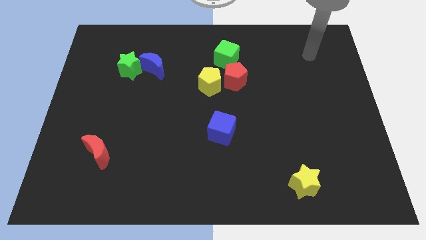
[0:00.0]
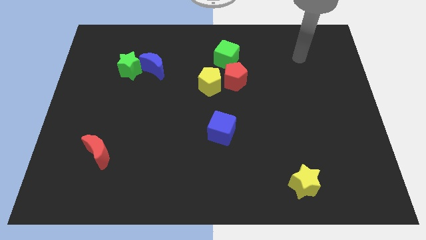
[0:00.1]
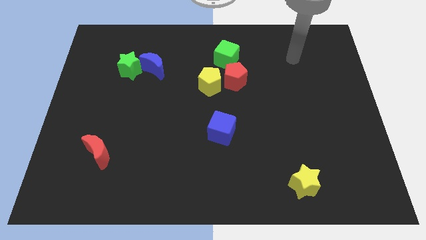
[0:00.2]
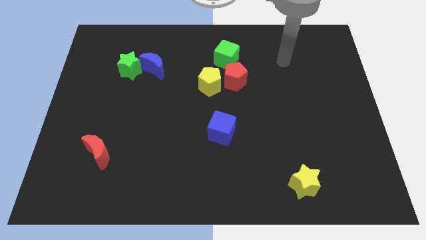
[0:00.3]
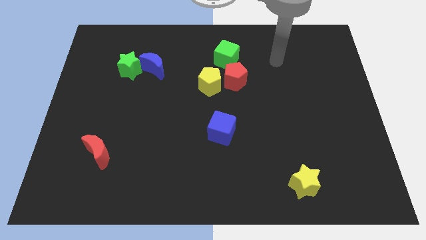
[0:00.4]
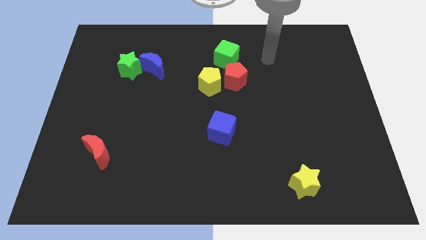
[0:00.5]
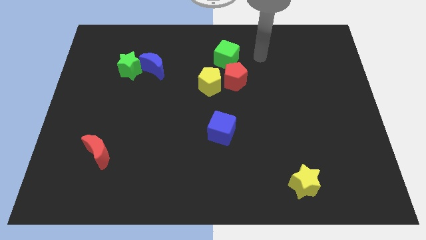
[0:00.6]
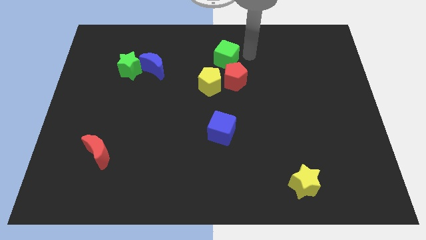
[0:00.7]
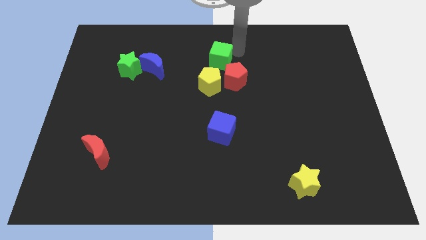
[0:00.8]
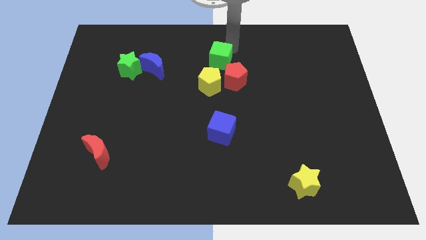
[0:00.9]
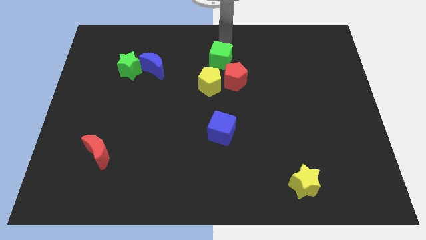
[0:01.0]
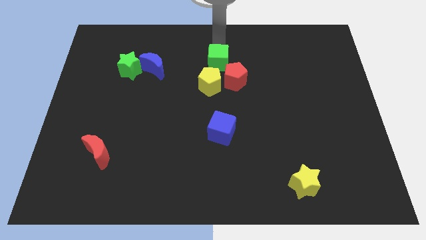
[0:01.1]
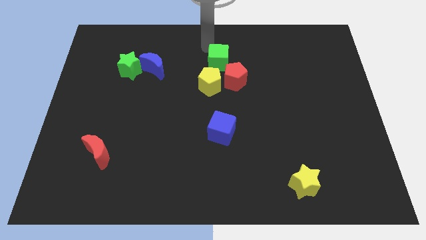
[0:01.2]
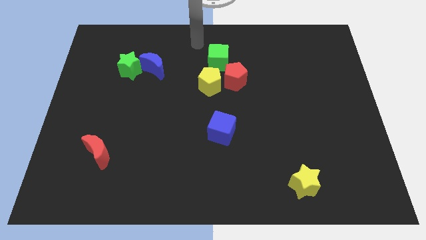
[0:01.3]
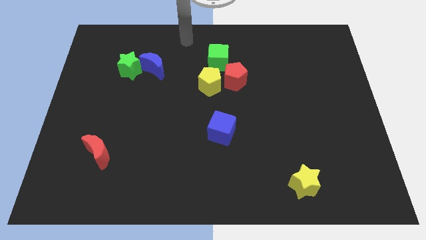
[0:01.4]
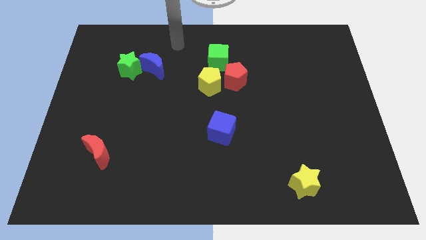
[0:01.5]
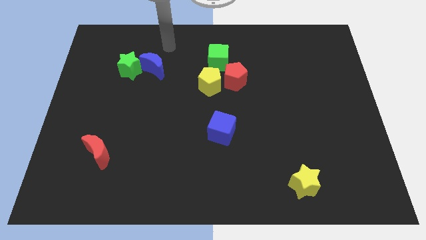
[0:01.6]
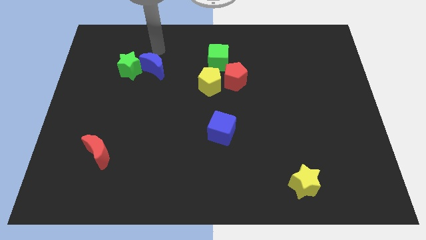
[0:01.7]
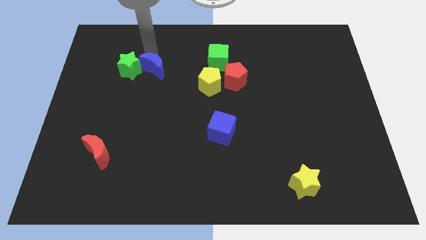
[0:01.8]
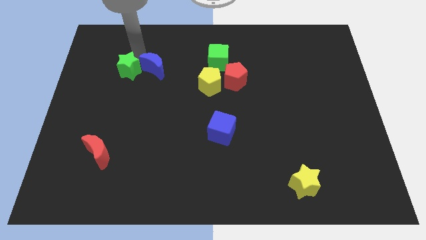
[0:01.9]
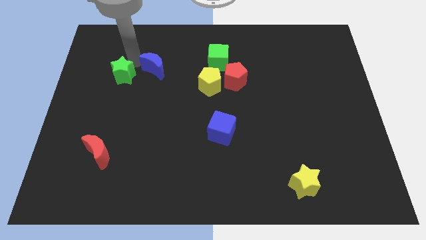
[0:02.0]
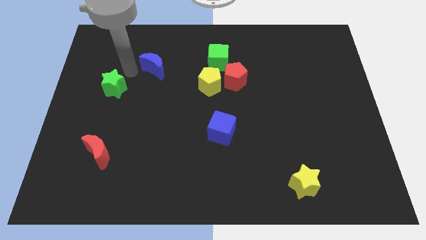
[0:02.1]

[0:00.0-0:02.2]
separate the blue moon from the green star

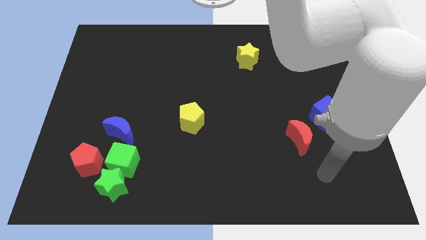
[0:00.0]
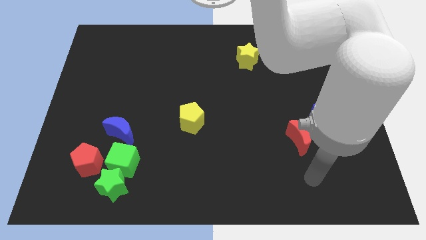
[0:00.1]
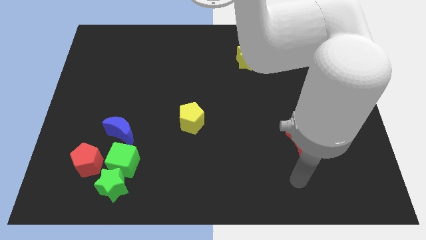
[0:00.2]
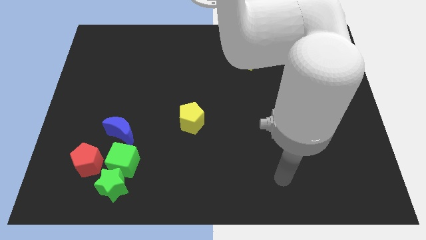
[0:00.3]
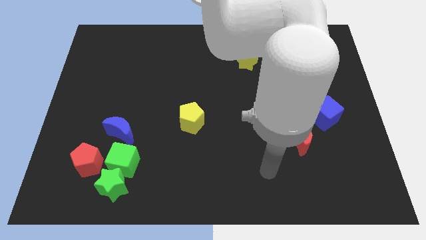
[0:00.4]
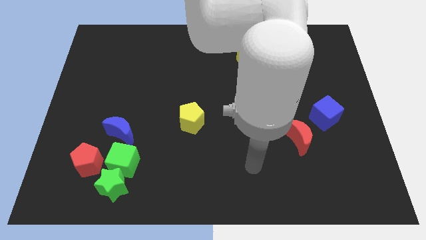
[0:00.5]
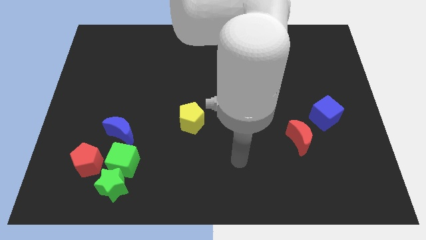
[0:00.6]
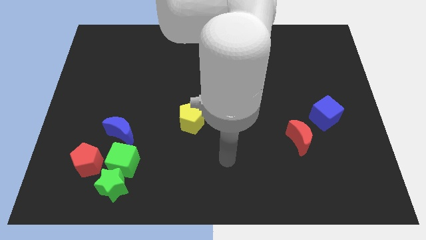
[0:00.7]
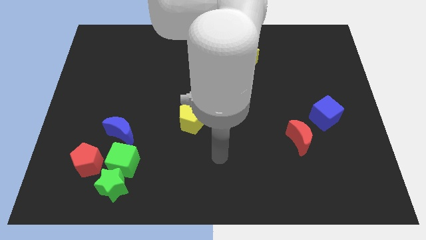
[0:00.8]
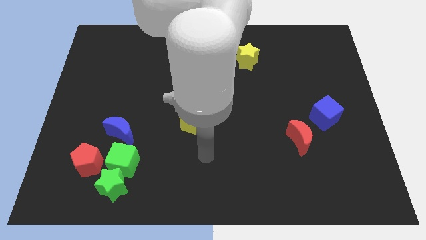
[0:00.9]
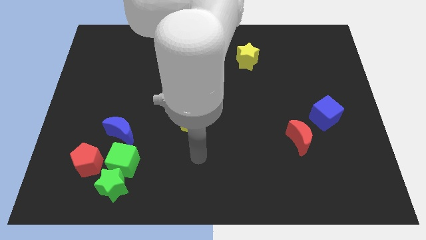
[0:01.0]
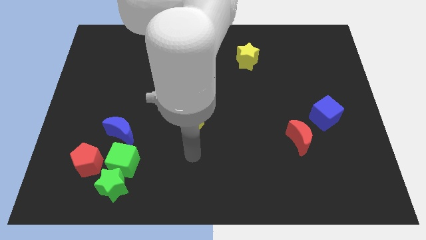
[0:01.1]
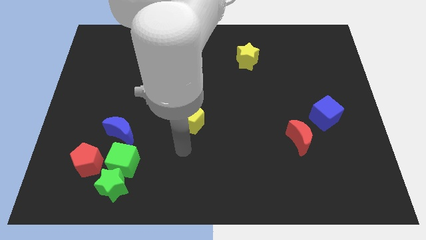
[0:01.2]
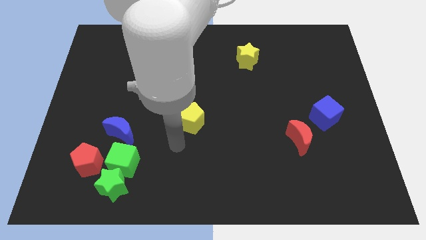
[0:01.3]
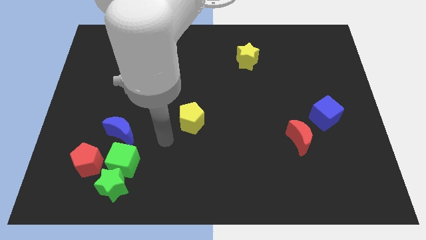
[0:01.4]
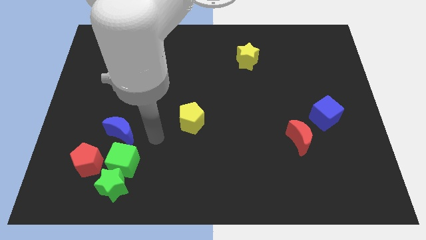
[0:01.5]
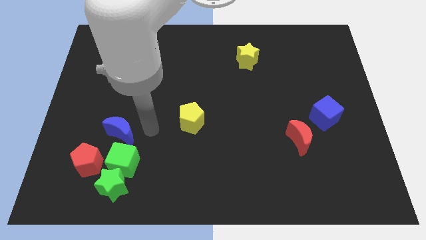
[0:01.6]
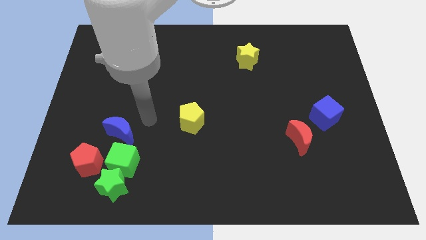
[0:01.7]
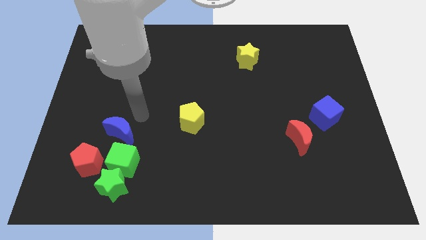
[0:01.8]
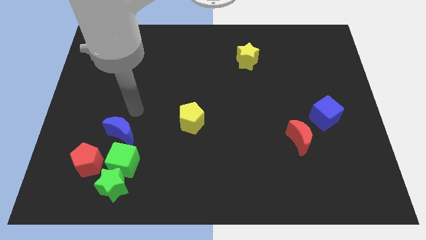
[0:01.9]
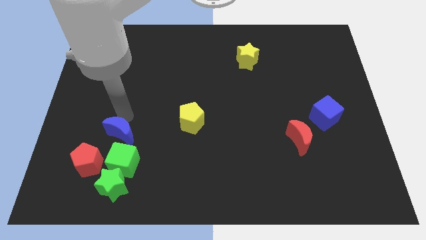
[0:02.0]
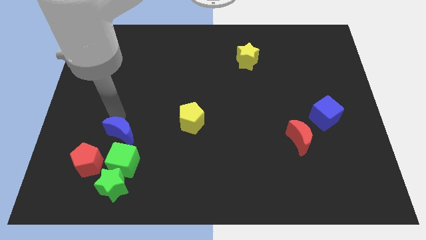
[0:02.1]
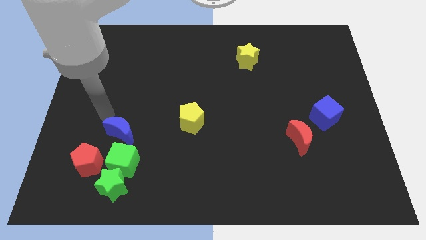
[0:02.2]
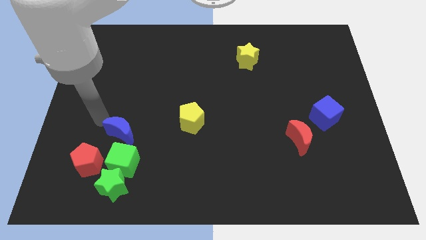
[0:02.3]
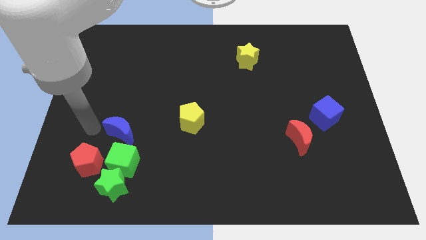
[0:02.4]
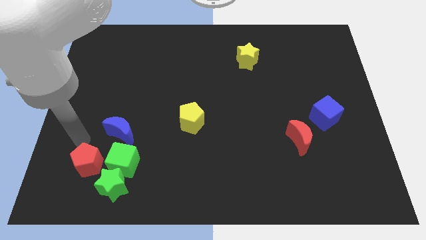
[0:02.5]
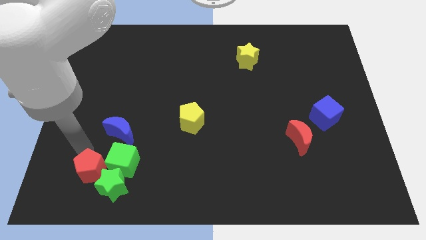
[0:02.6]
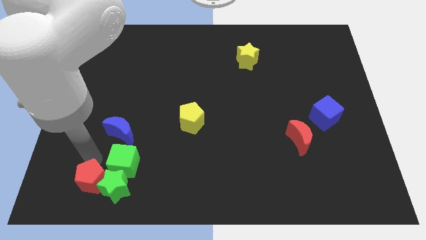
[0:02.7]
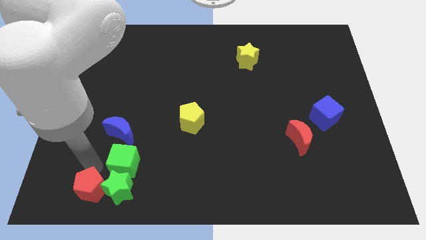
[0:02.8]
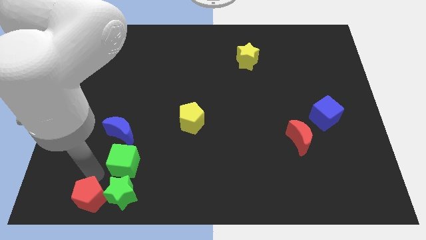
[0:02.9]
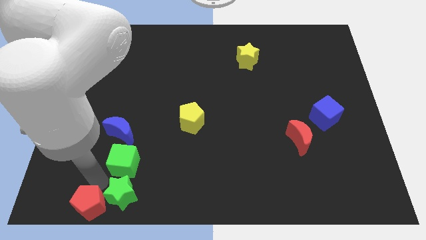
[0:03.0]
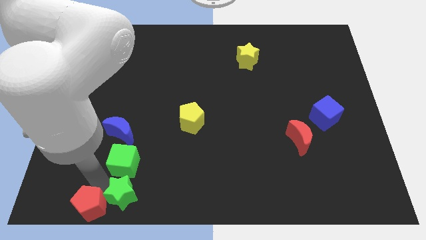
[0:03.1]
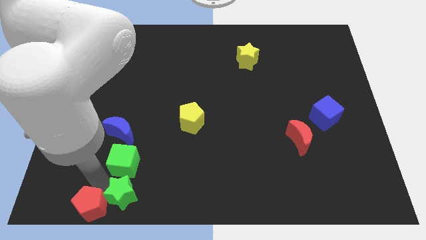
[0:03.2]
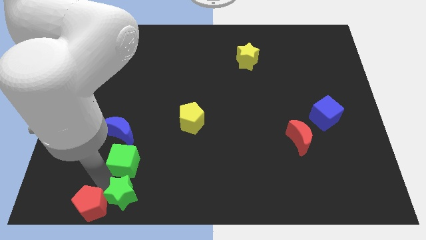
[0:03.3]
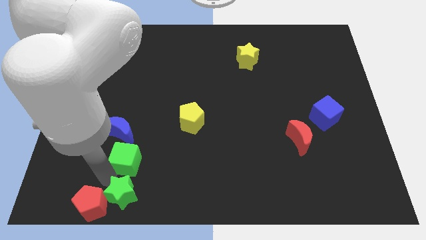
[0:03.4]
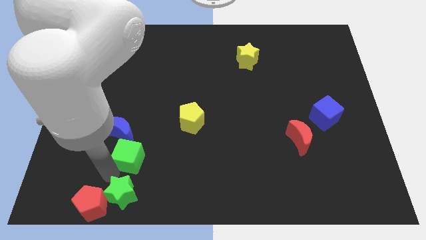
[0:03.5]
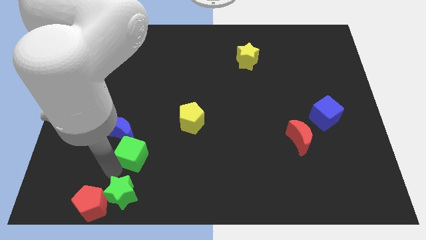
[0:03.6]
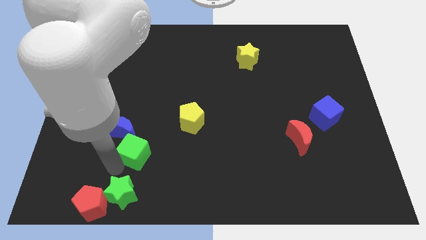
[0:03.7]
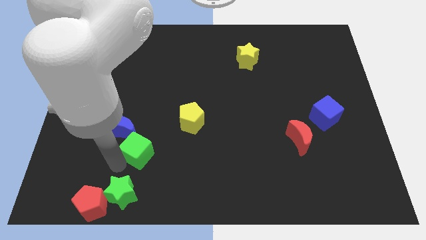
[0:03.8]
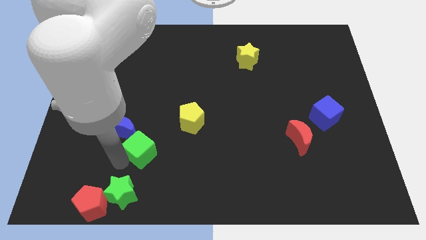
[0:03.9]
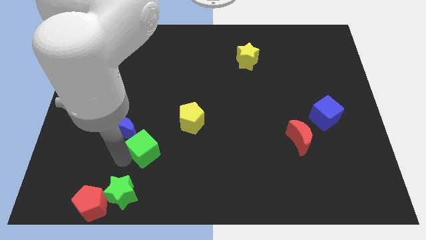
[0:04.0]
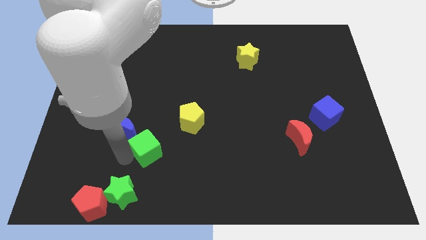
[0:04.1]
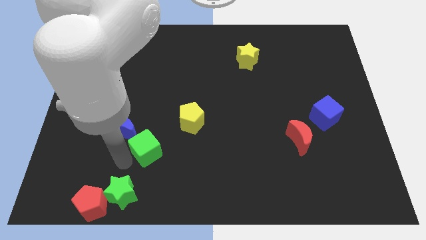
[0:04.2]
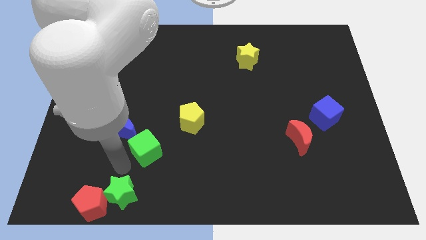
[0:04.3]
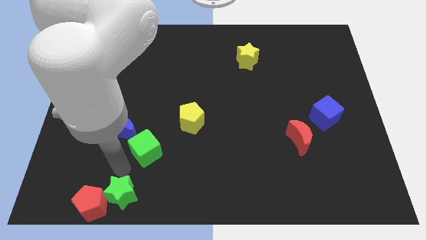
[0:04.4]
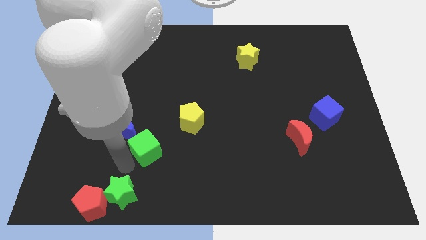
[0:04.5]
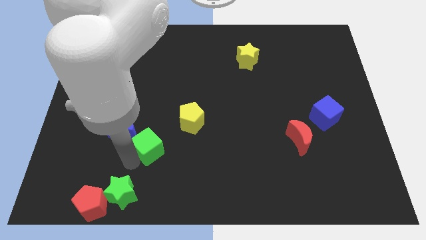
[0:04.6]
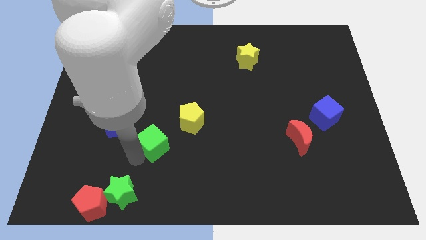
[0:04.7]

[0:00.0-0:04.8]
separate the green cube from the clump

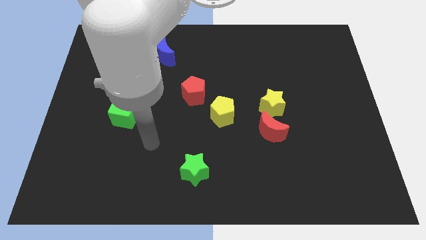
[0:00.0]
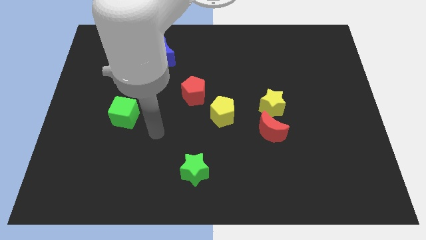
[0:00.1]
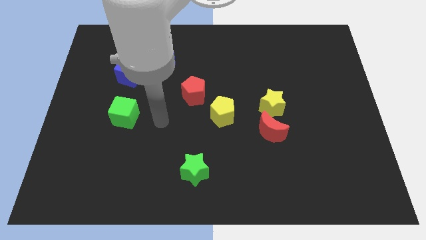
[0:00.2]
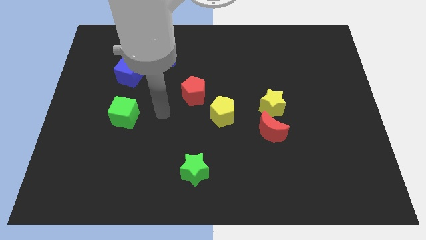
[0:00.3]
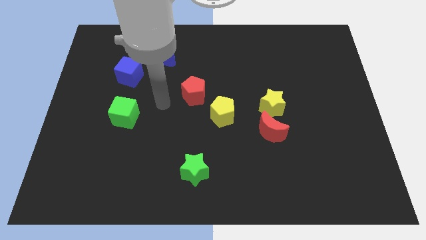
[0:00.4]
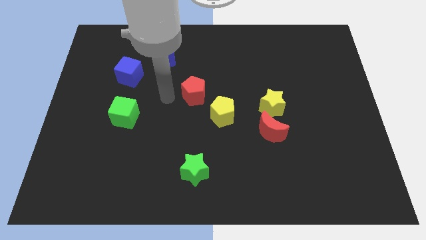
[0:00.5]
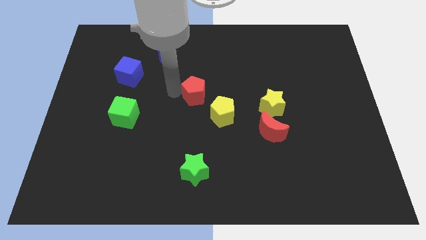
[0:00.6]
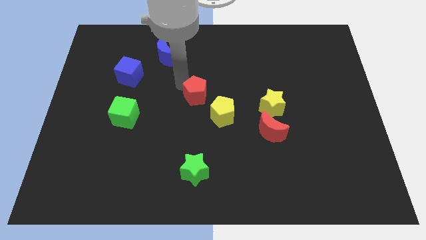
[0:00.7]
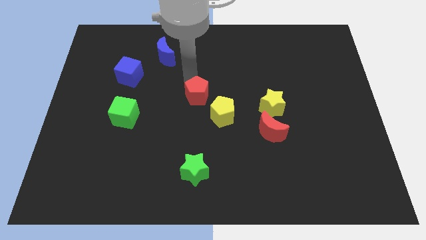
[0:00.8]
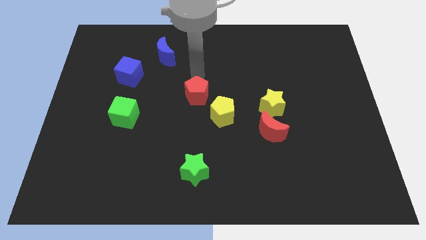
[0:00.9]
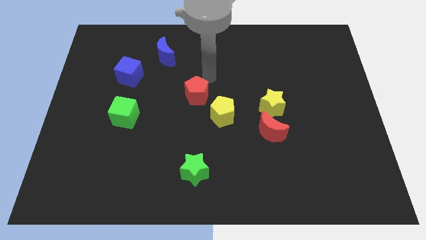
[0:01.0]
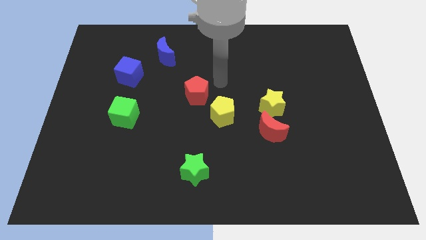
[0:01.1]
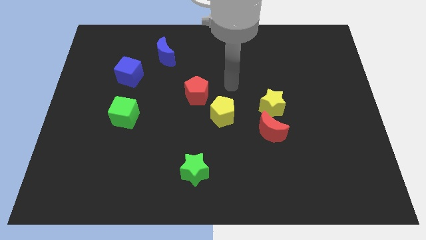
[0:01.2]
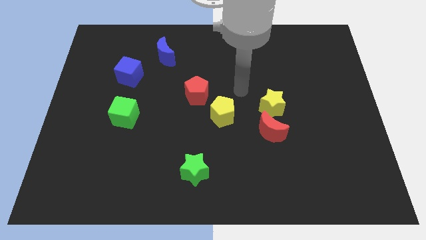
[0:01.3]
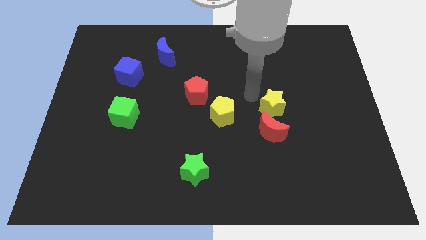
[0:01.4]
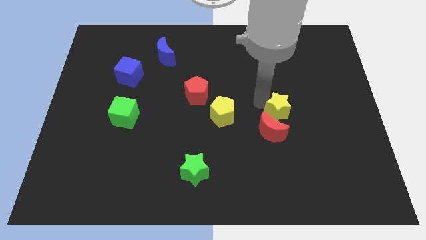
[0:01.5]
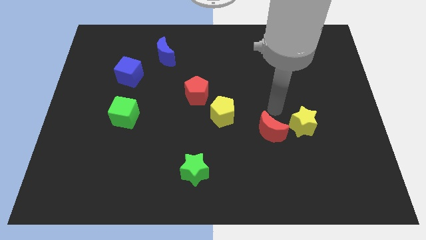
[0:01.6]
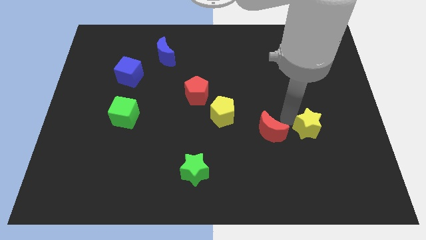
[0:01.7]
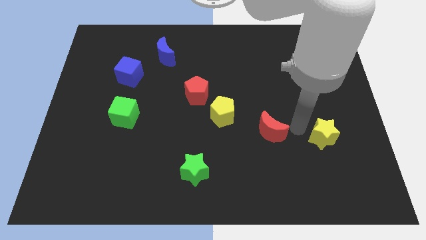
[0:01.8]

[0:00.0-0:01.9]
pull the red moon apart from the yellow star

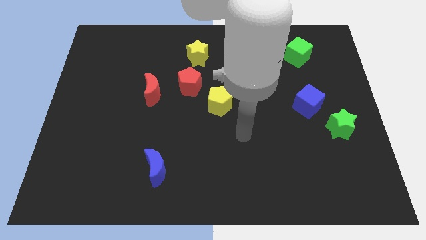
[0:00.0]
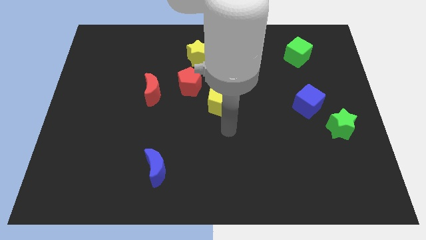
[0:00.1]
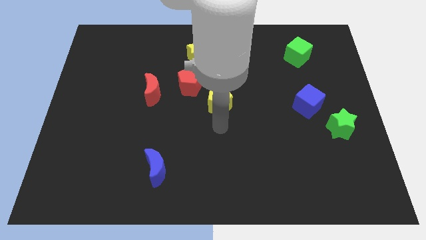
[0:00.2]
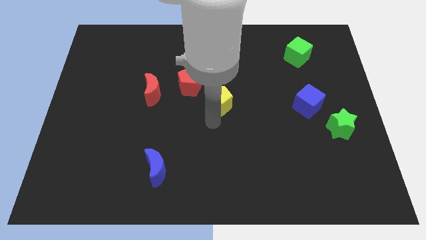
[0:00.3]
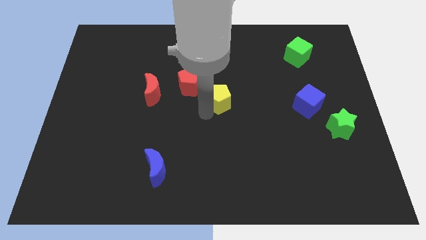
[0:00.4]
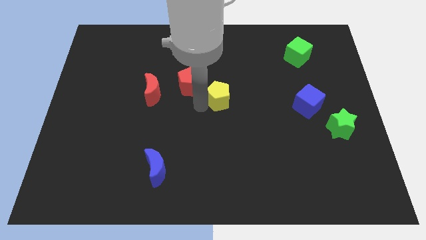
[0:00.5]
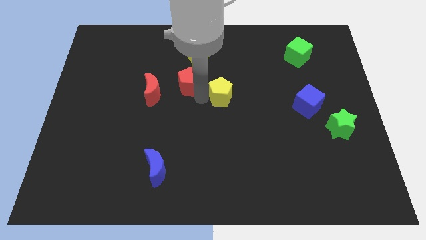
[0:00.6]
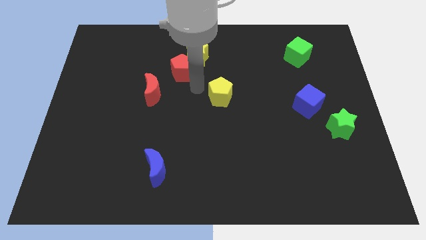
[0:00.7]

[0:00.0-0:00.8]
move the yellow pentagon away from the red pentagon
